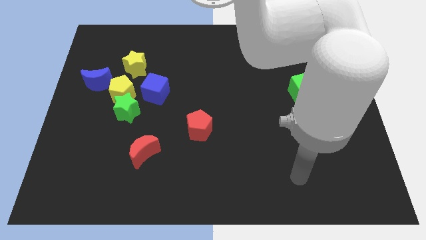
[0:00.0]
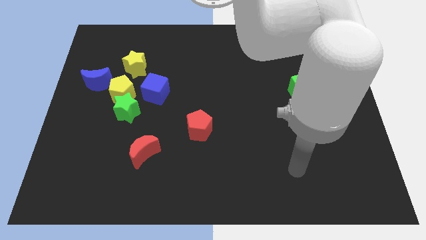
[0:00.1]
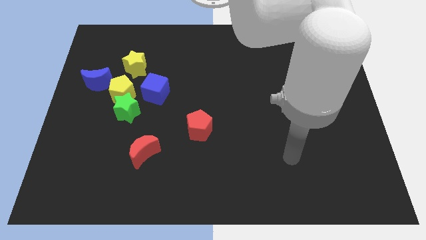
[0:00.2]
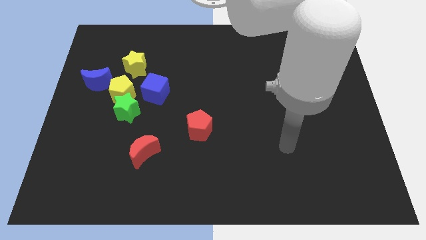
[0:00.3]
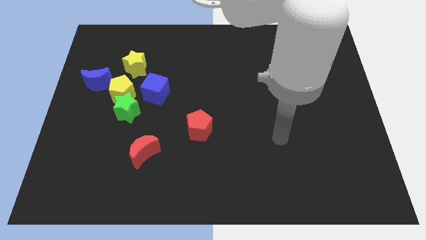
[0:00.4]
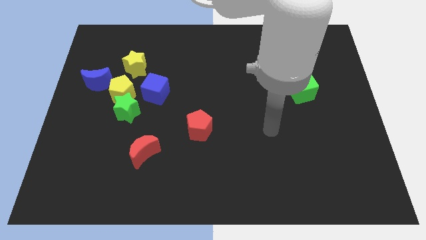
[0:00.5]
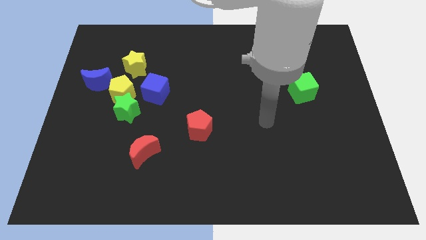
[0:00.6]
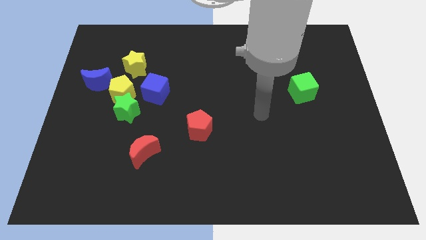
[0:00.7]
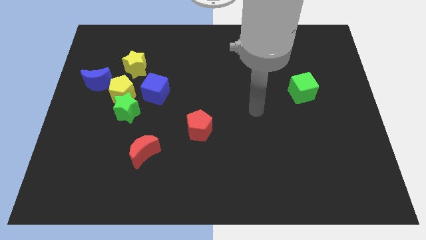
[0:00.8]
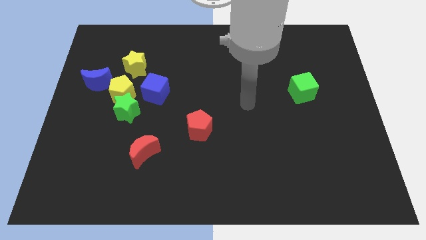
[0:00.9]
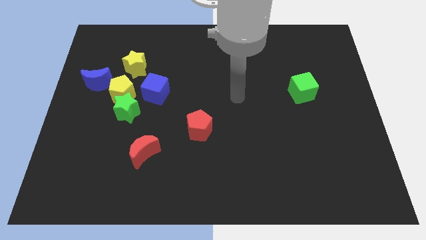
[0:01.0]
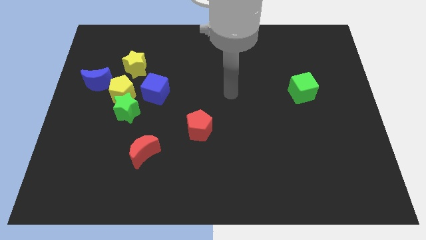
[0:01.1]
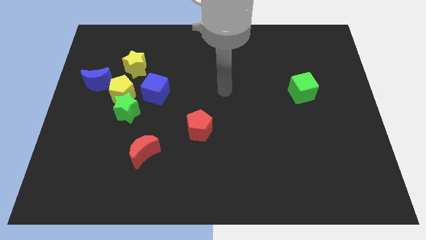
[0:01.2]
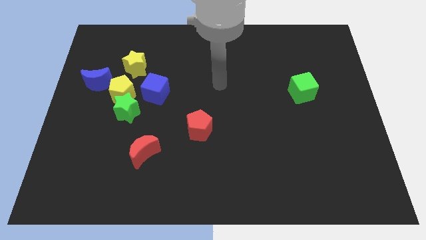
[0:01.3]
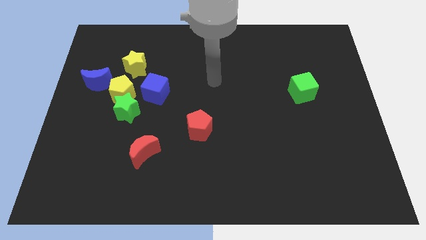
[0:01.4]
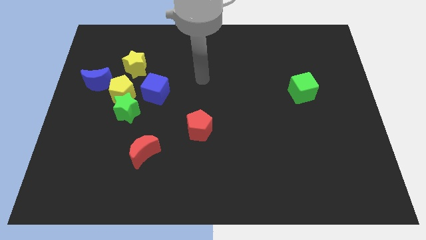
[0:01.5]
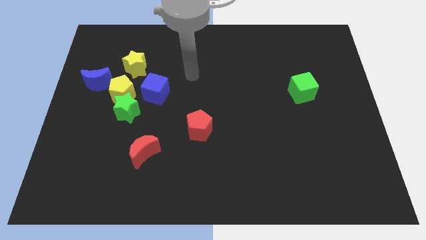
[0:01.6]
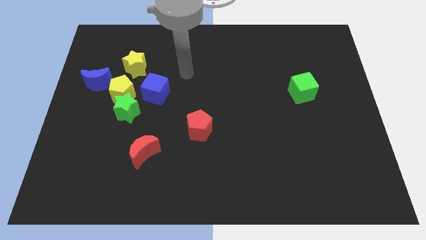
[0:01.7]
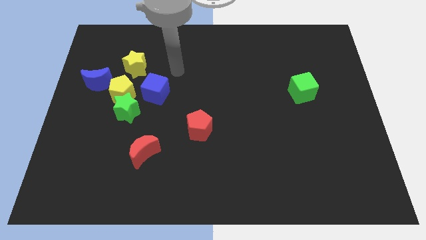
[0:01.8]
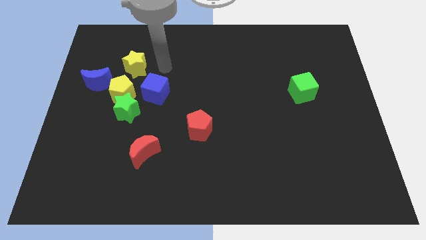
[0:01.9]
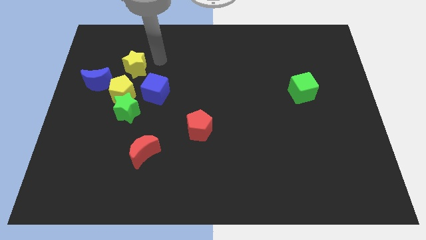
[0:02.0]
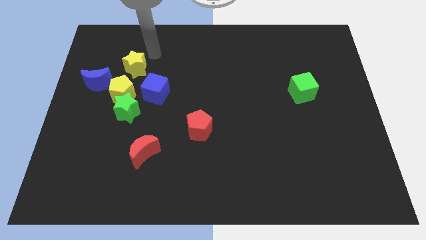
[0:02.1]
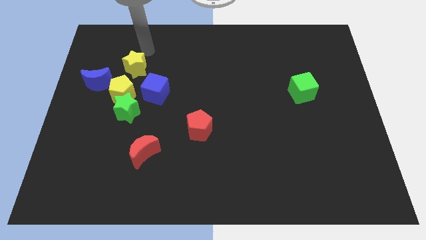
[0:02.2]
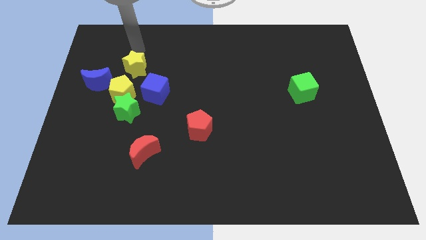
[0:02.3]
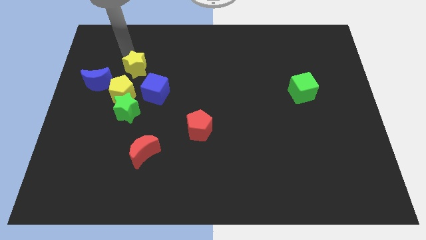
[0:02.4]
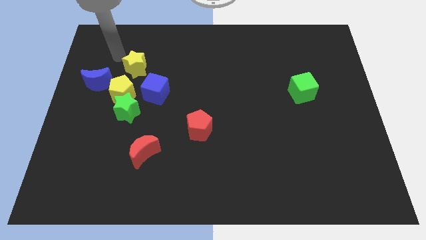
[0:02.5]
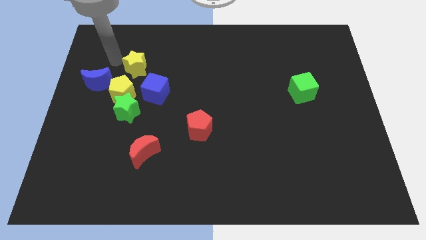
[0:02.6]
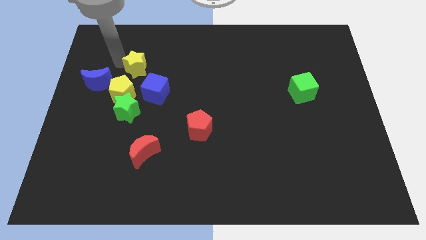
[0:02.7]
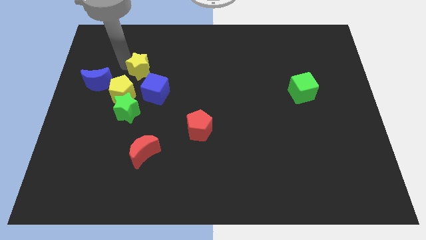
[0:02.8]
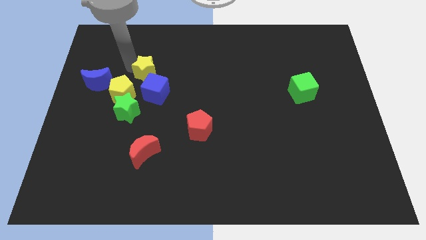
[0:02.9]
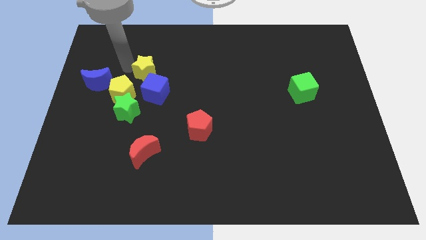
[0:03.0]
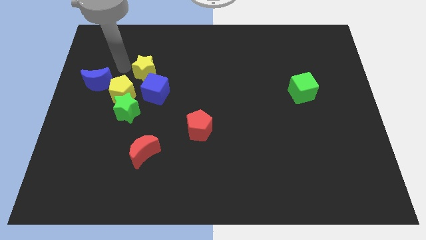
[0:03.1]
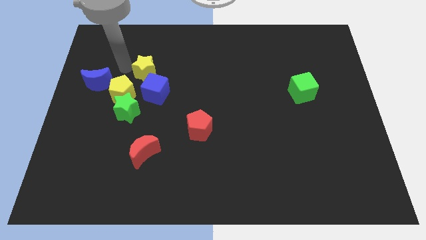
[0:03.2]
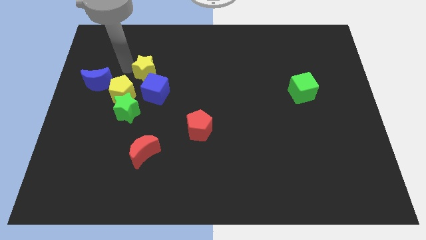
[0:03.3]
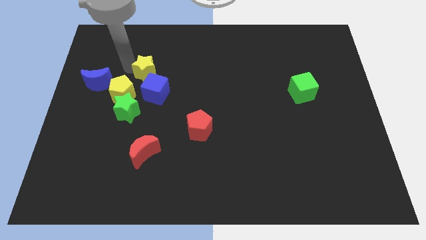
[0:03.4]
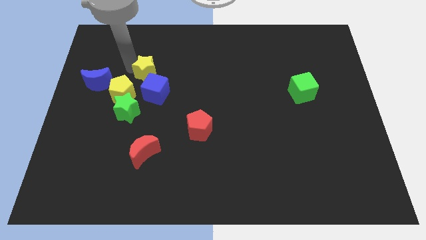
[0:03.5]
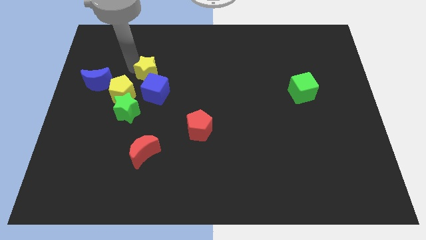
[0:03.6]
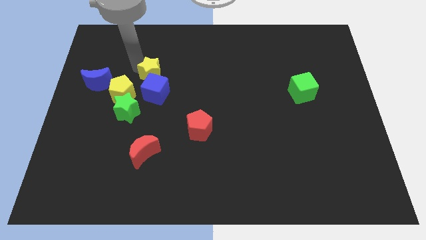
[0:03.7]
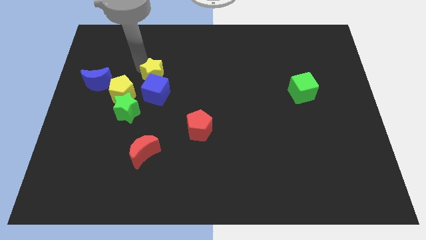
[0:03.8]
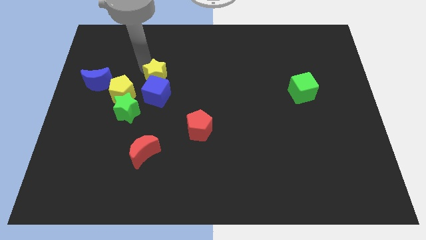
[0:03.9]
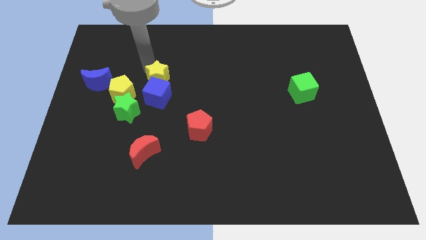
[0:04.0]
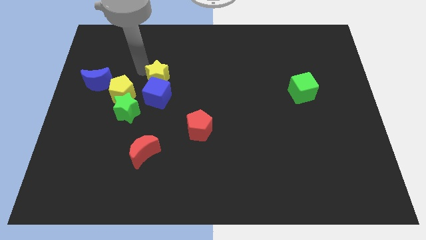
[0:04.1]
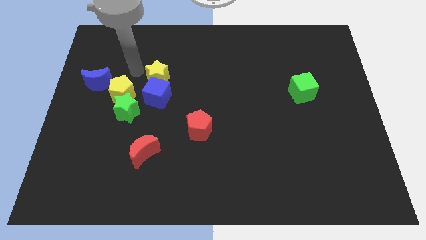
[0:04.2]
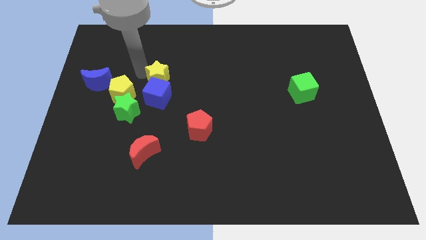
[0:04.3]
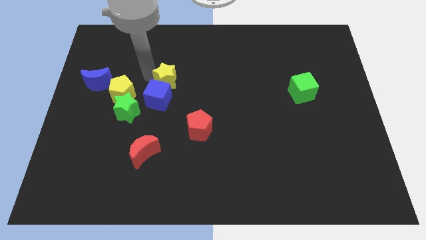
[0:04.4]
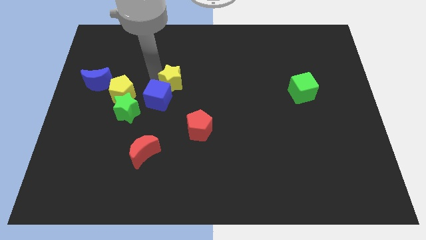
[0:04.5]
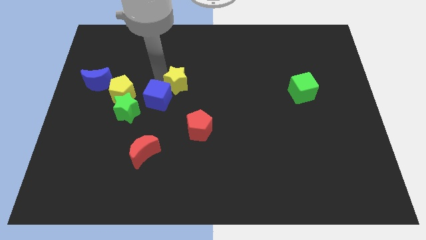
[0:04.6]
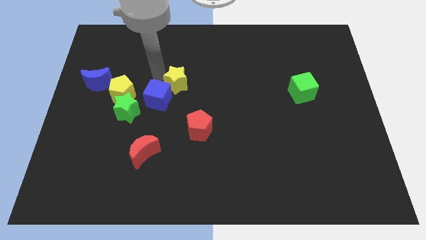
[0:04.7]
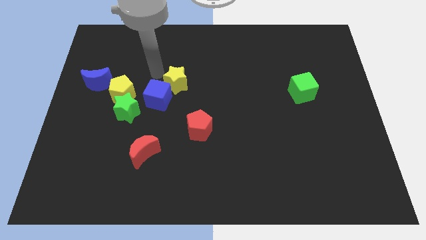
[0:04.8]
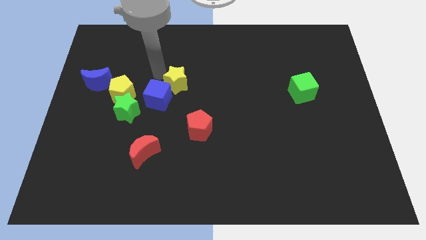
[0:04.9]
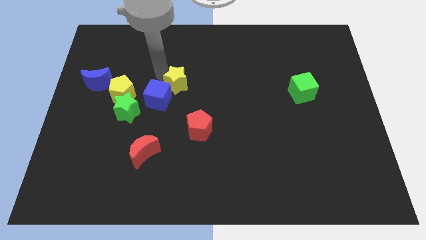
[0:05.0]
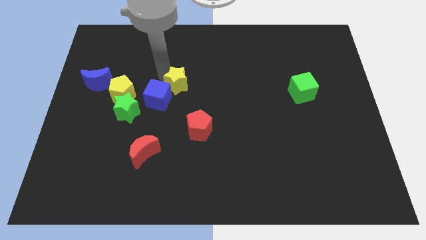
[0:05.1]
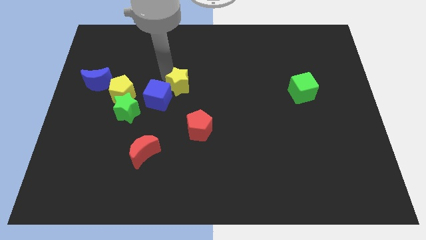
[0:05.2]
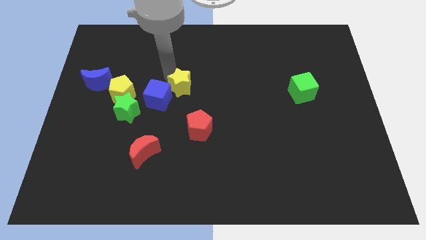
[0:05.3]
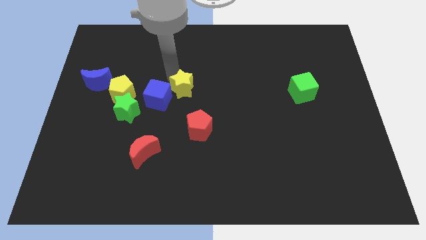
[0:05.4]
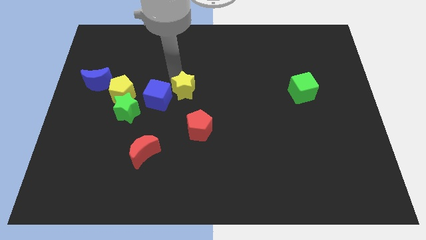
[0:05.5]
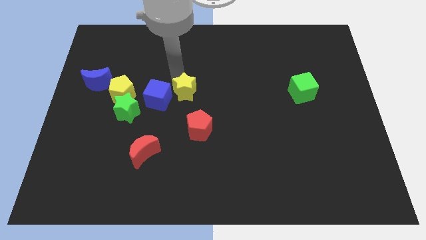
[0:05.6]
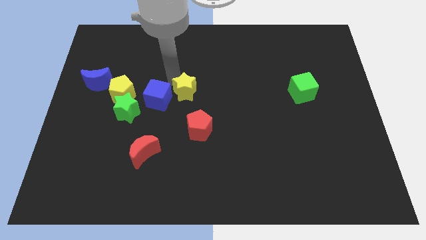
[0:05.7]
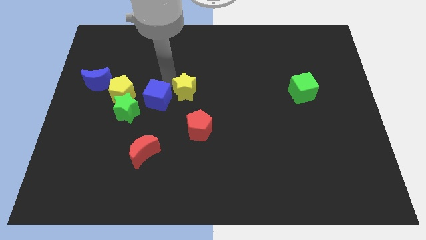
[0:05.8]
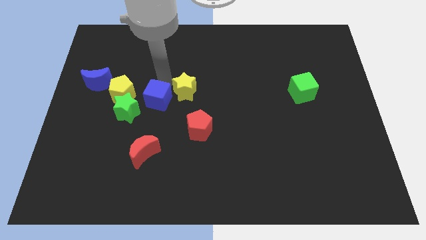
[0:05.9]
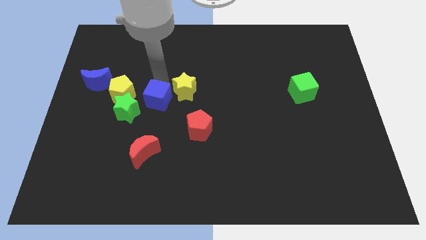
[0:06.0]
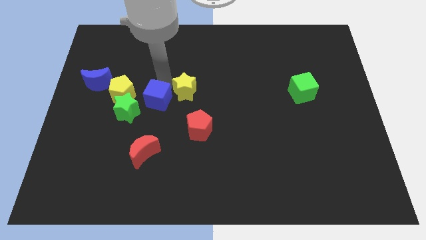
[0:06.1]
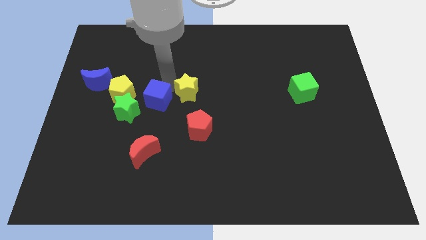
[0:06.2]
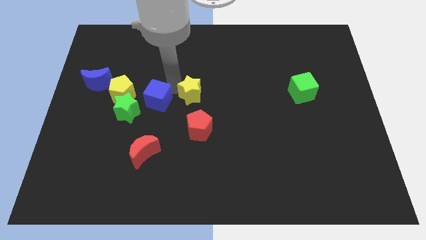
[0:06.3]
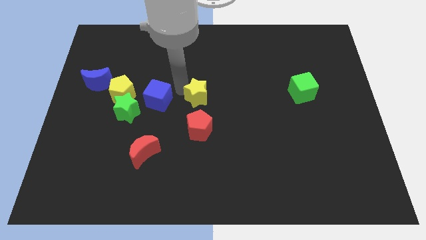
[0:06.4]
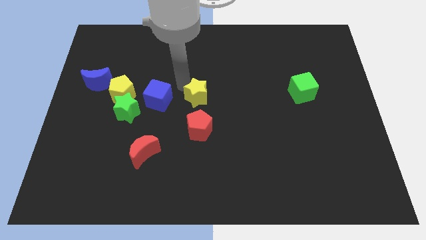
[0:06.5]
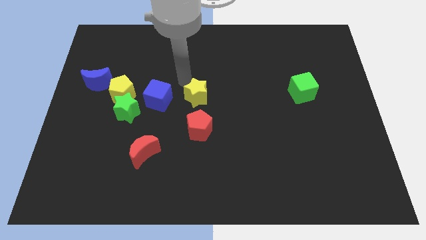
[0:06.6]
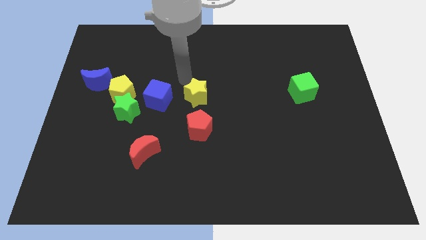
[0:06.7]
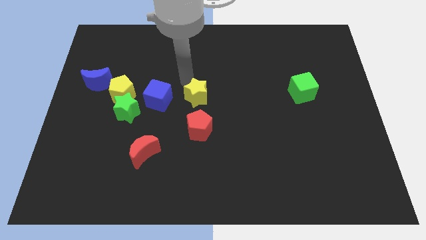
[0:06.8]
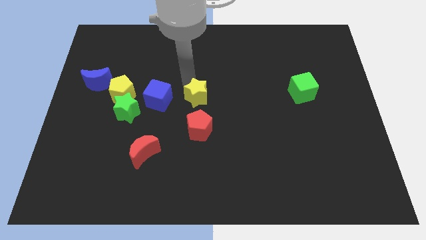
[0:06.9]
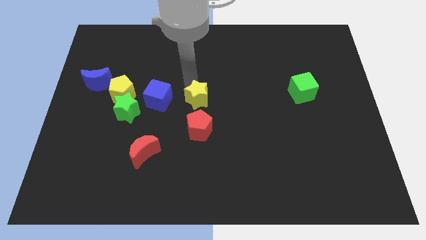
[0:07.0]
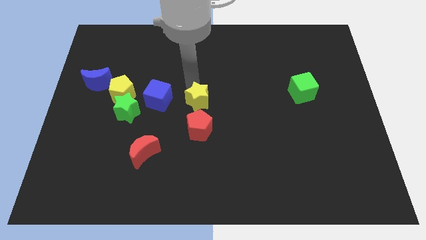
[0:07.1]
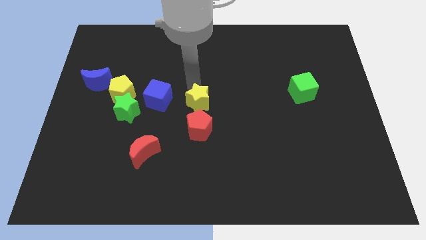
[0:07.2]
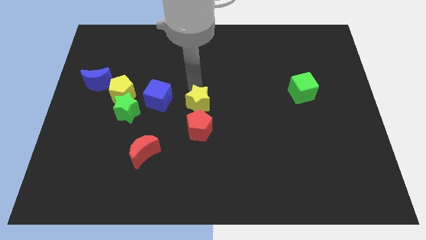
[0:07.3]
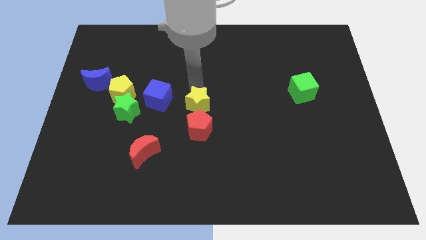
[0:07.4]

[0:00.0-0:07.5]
push the yellow star down and to the right
